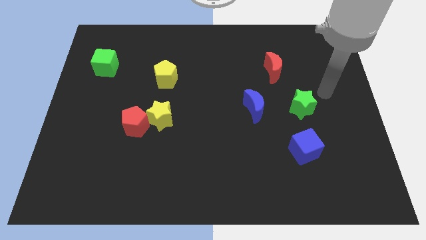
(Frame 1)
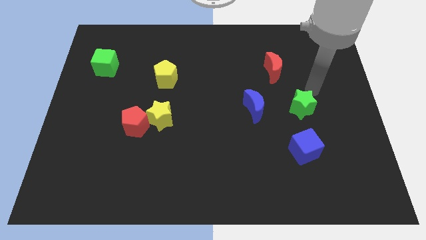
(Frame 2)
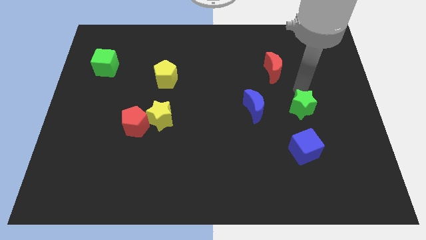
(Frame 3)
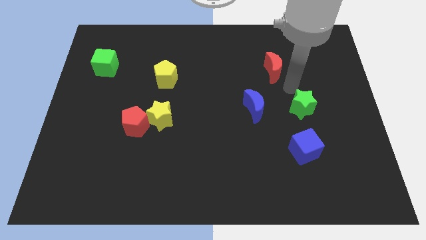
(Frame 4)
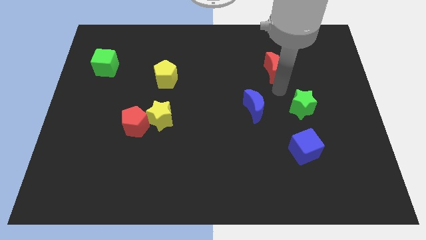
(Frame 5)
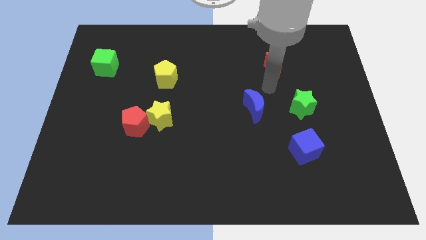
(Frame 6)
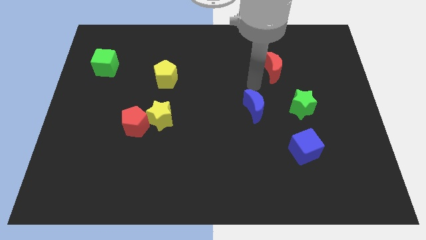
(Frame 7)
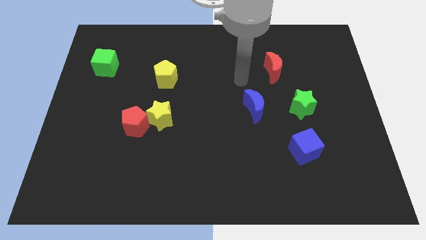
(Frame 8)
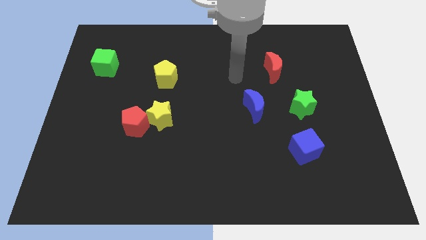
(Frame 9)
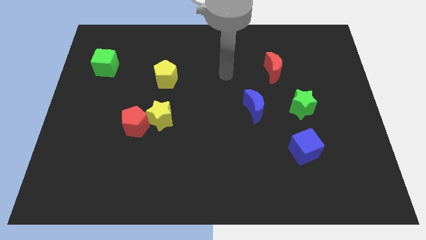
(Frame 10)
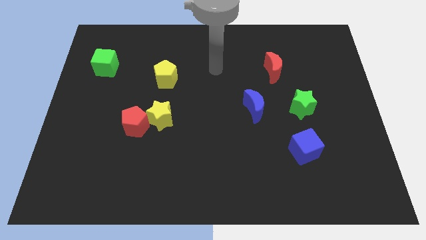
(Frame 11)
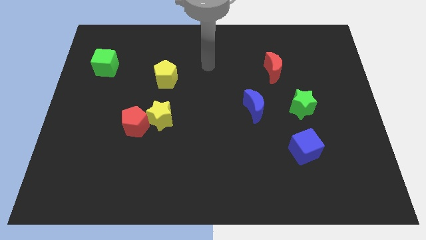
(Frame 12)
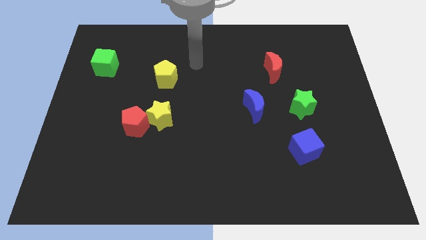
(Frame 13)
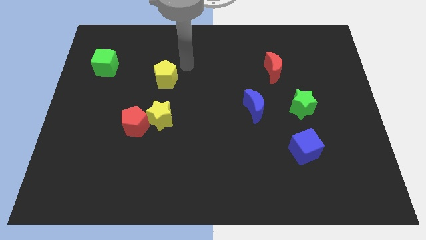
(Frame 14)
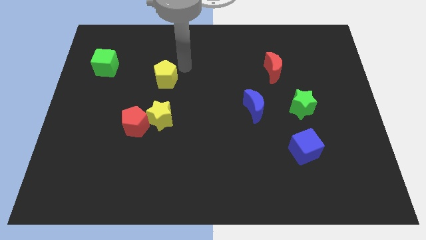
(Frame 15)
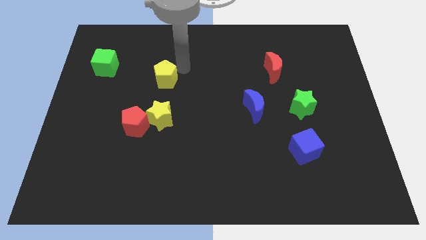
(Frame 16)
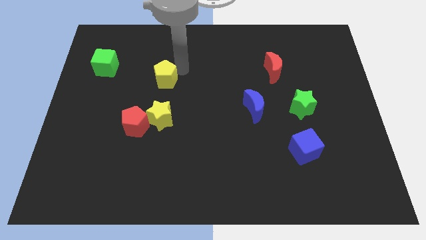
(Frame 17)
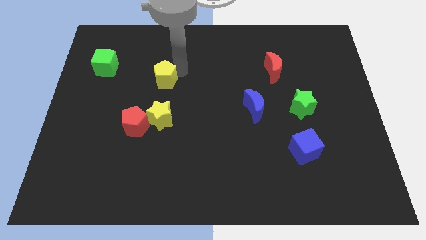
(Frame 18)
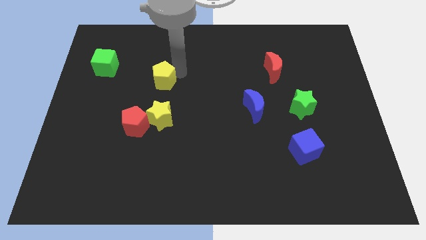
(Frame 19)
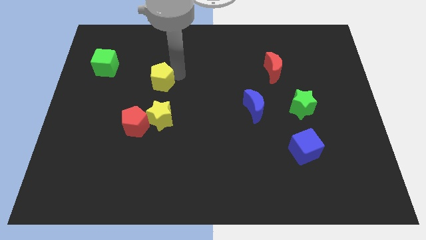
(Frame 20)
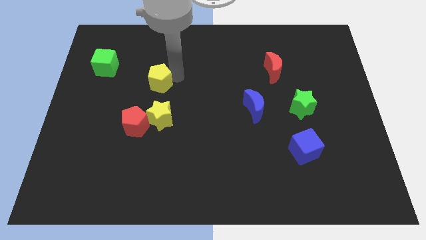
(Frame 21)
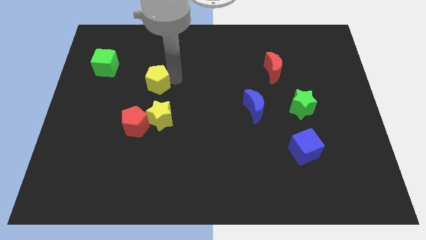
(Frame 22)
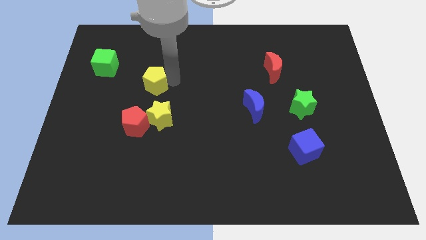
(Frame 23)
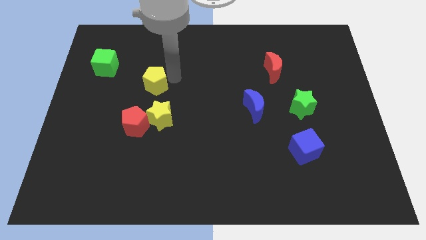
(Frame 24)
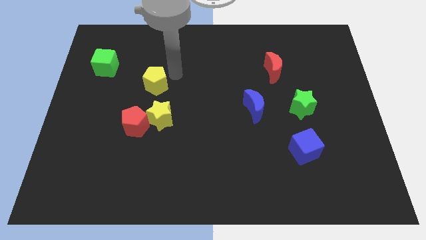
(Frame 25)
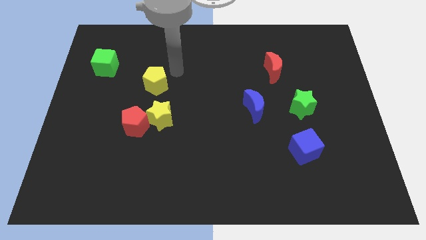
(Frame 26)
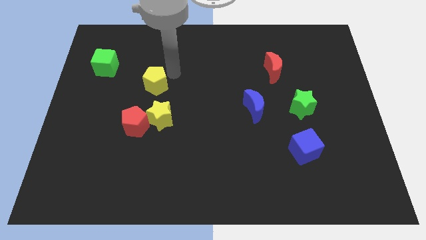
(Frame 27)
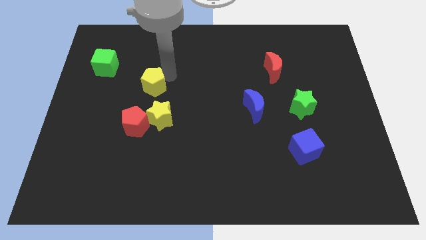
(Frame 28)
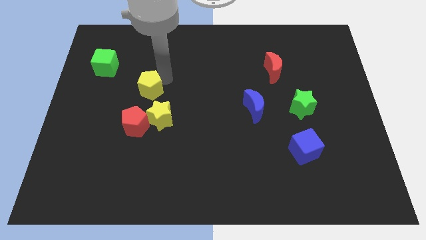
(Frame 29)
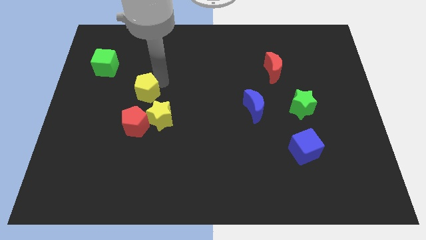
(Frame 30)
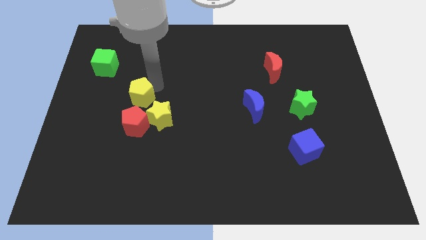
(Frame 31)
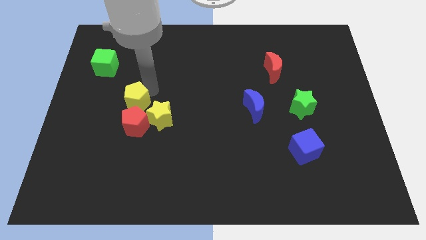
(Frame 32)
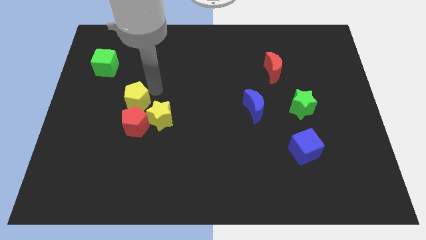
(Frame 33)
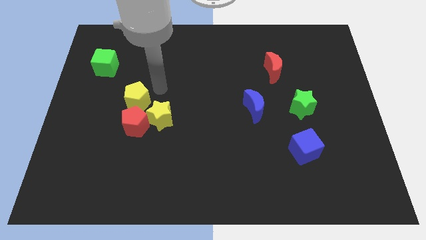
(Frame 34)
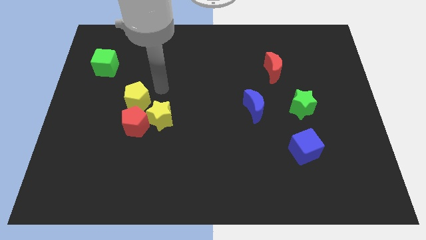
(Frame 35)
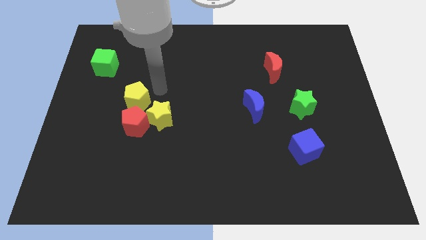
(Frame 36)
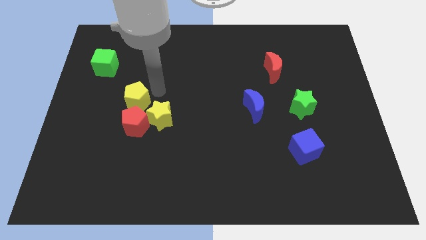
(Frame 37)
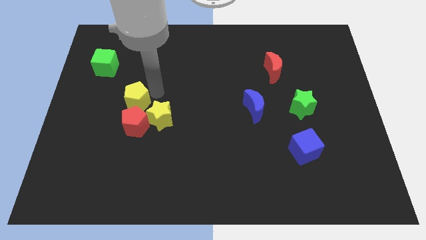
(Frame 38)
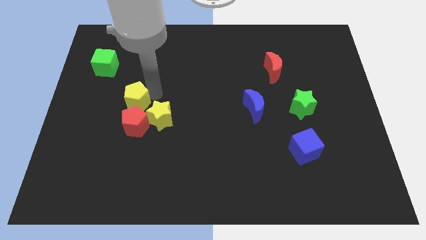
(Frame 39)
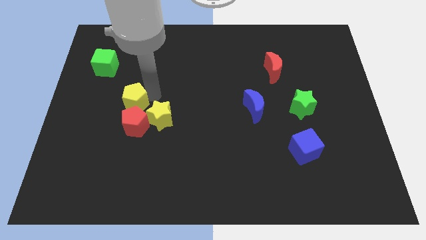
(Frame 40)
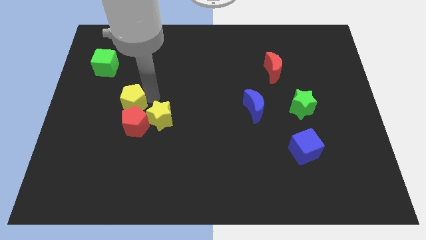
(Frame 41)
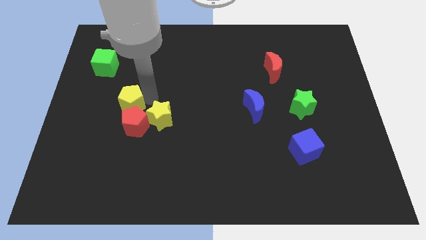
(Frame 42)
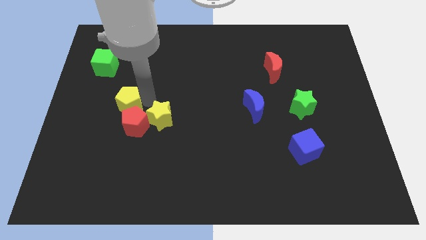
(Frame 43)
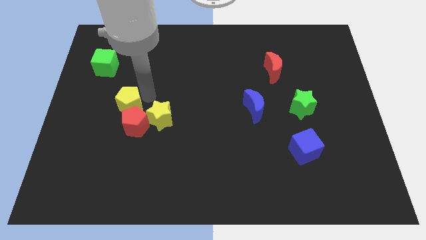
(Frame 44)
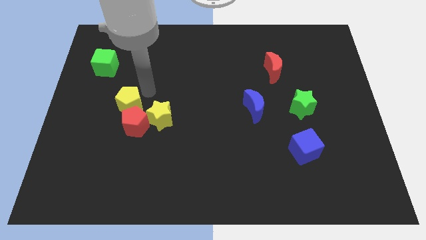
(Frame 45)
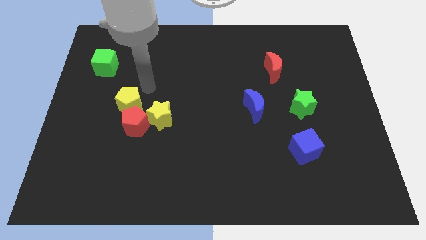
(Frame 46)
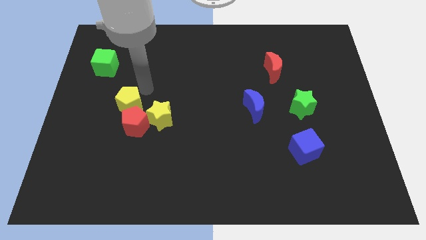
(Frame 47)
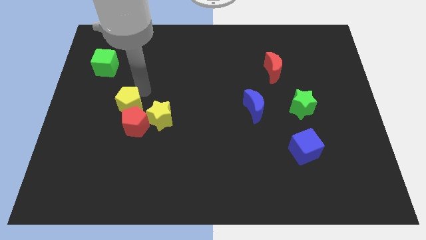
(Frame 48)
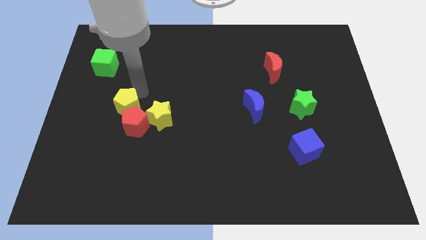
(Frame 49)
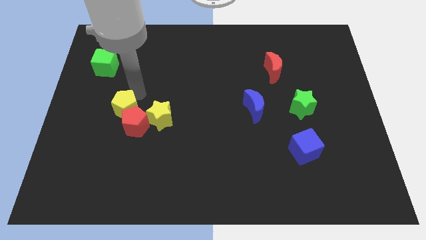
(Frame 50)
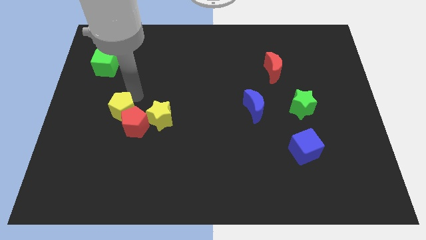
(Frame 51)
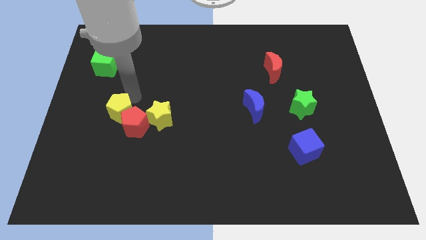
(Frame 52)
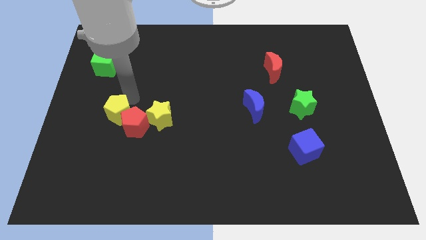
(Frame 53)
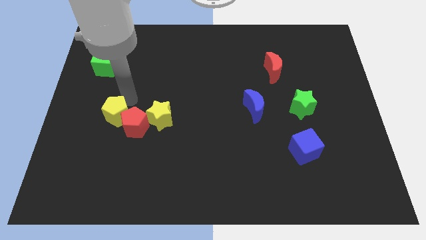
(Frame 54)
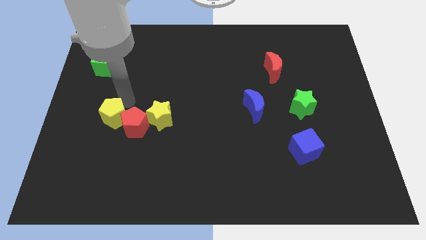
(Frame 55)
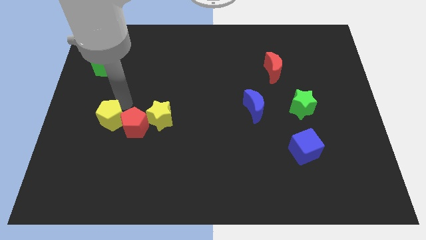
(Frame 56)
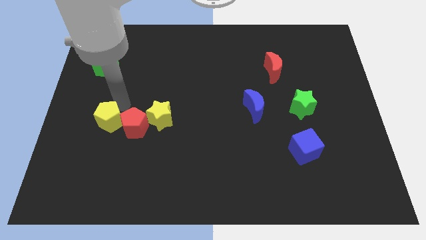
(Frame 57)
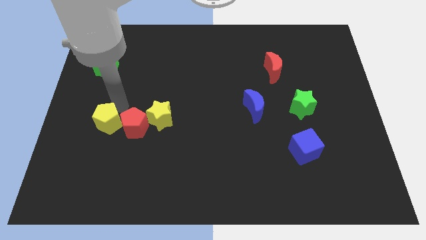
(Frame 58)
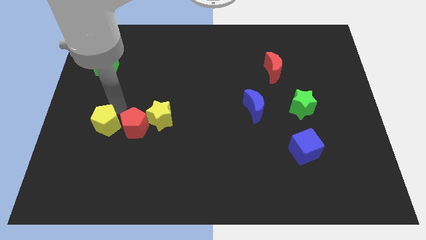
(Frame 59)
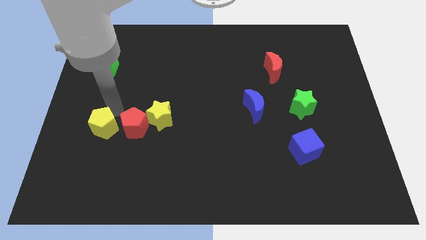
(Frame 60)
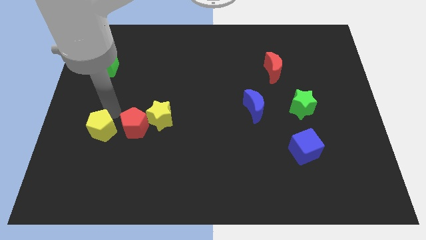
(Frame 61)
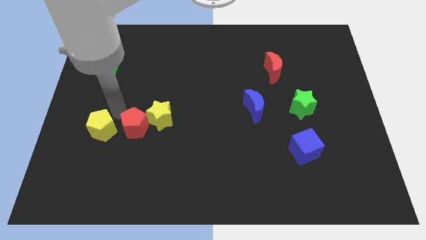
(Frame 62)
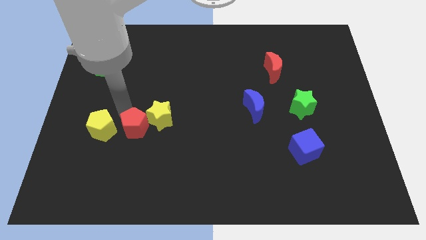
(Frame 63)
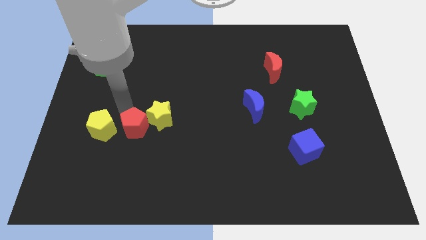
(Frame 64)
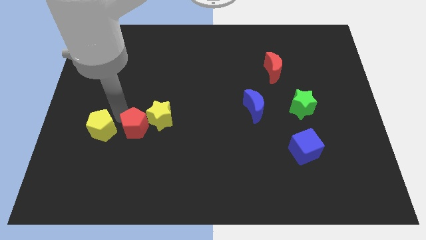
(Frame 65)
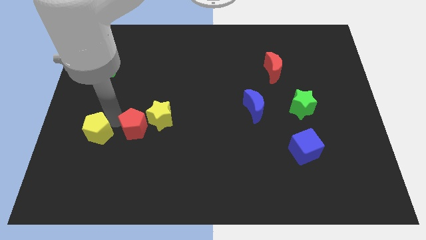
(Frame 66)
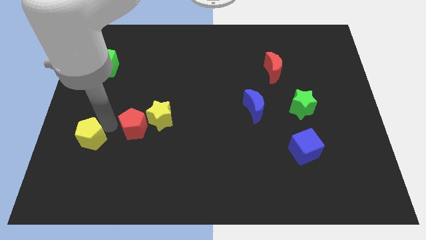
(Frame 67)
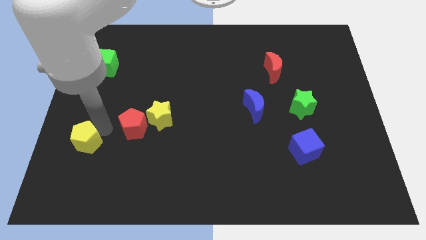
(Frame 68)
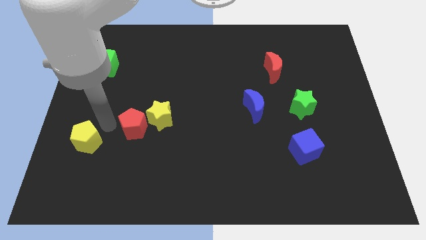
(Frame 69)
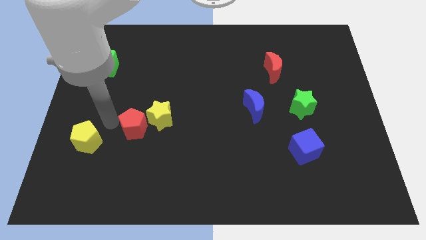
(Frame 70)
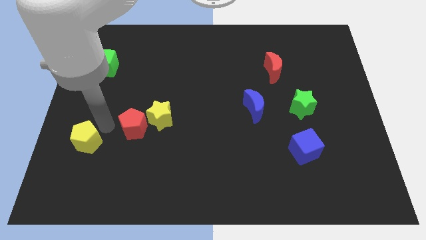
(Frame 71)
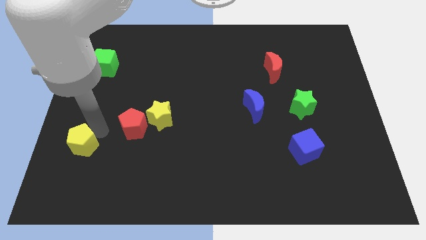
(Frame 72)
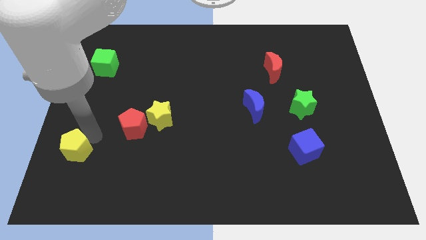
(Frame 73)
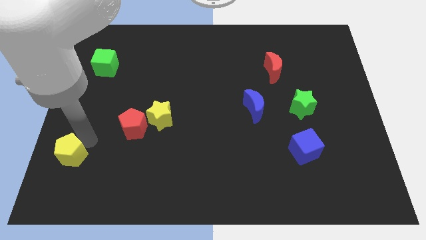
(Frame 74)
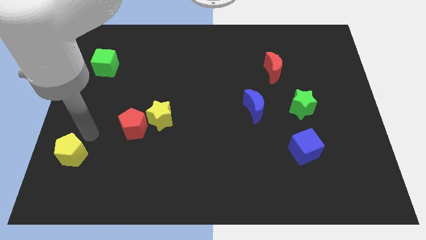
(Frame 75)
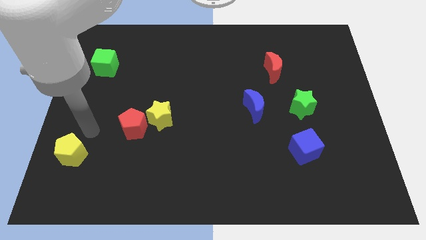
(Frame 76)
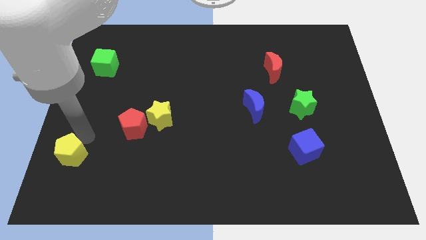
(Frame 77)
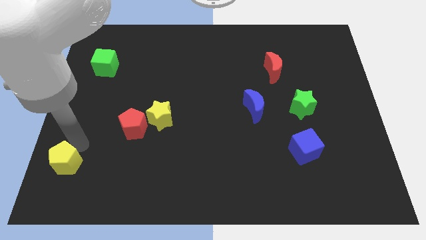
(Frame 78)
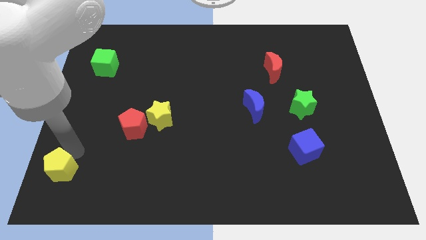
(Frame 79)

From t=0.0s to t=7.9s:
put the yellow pentagon to the lower left corner
